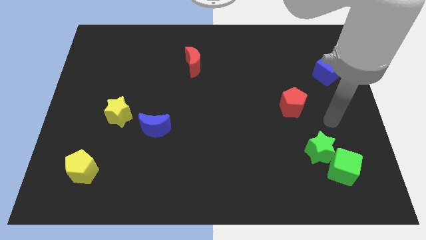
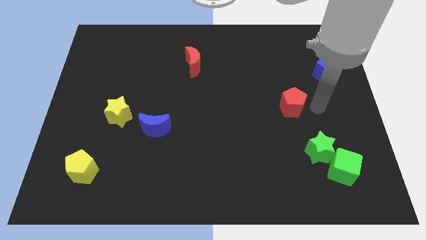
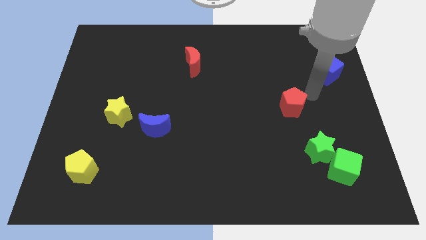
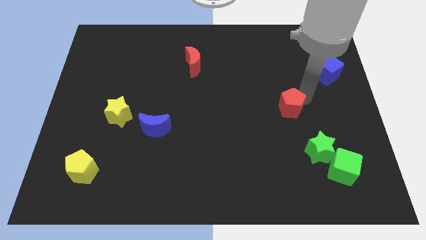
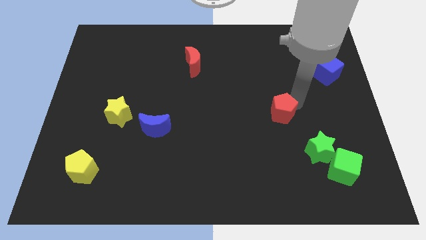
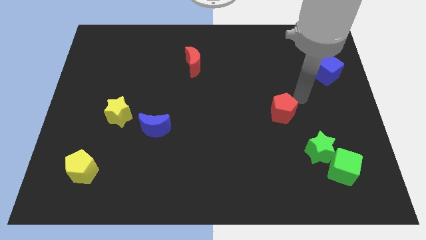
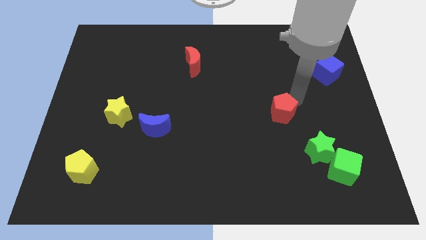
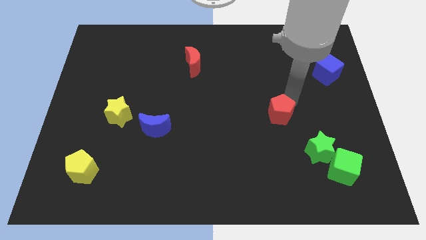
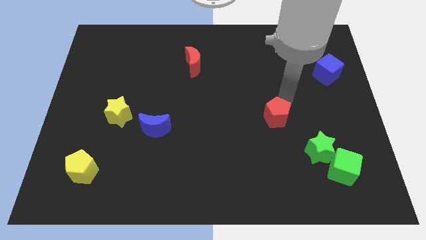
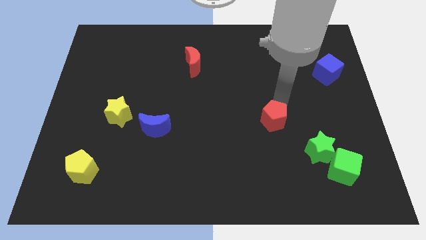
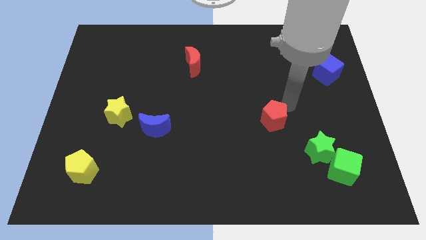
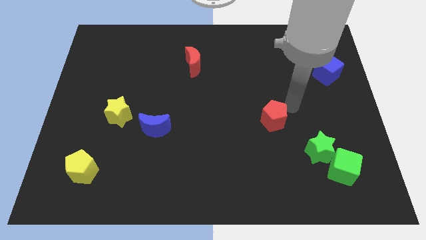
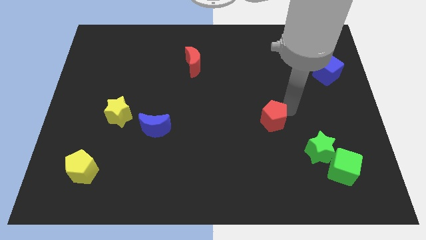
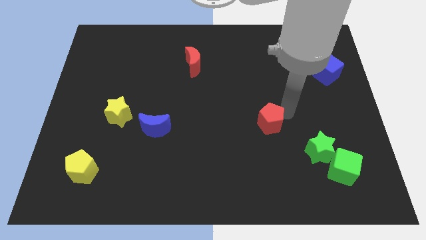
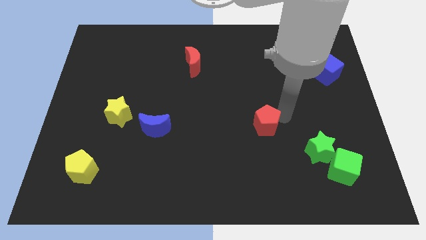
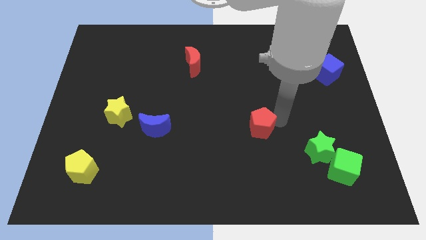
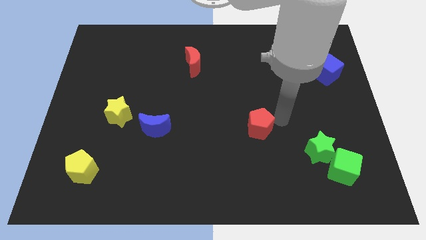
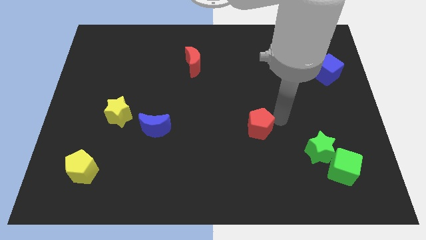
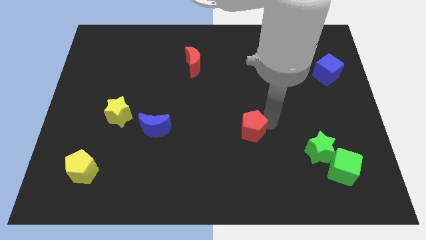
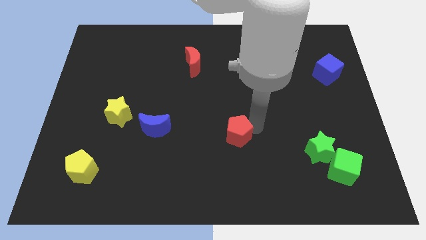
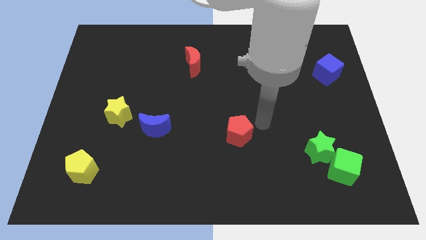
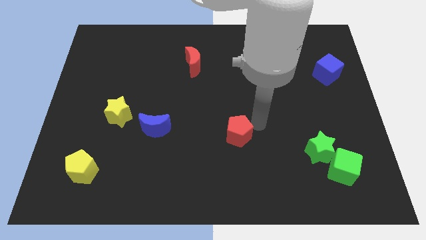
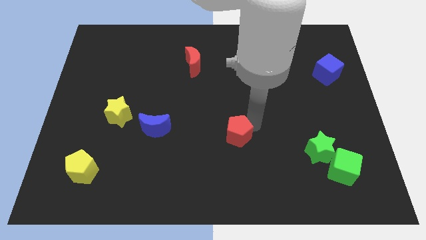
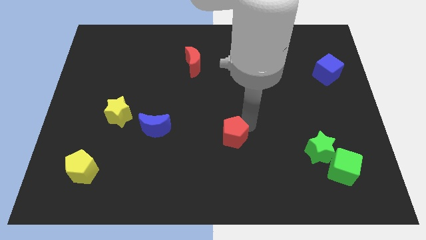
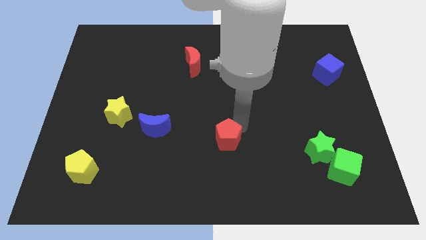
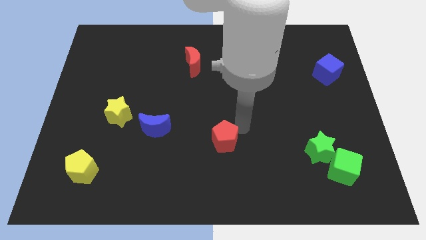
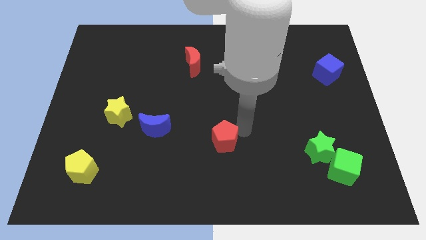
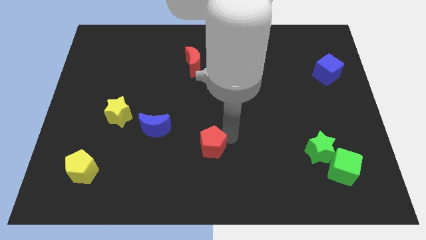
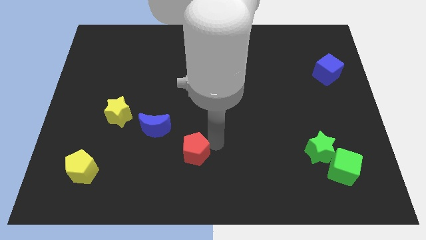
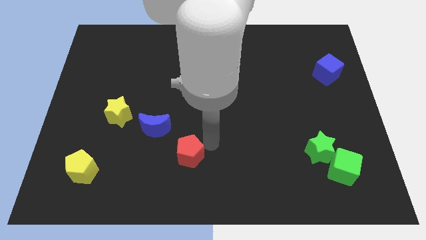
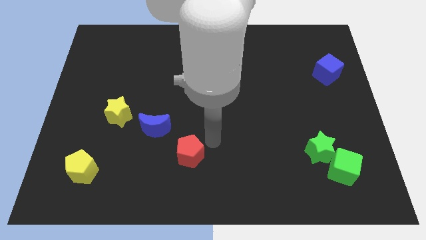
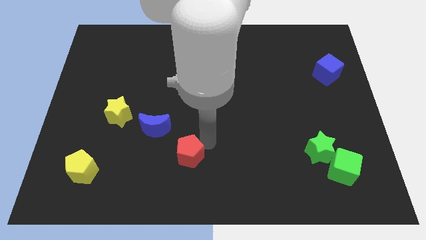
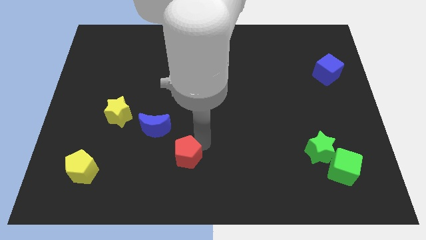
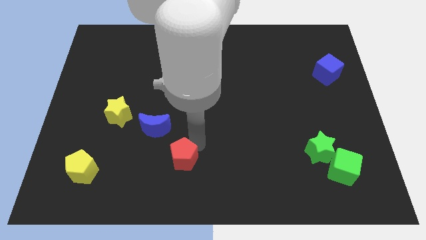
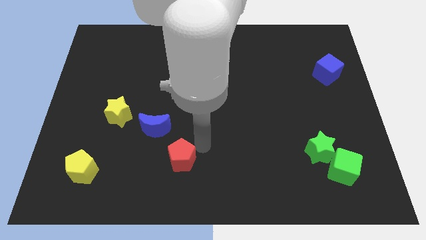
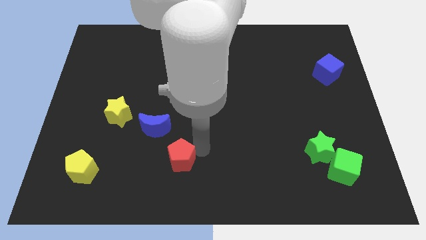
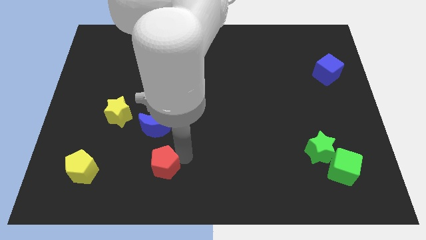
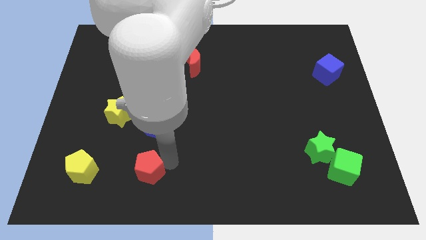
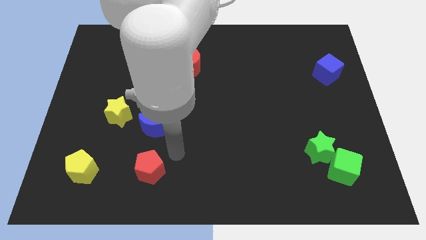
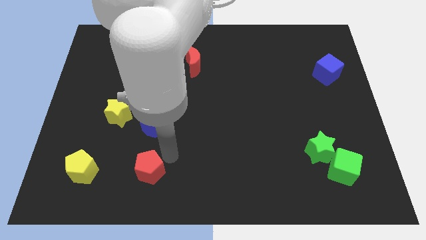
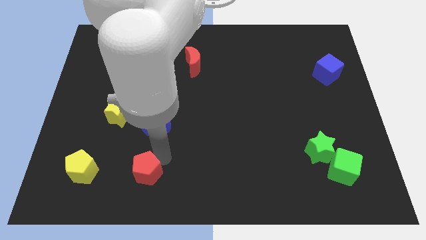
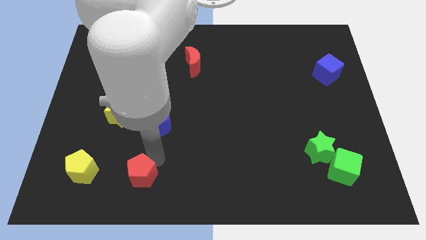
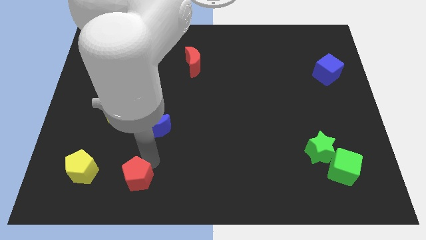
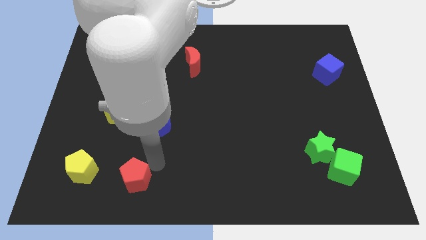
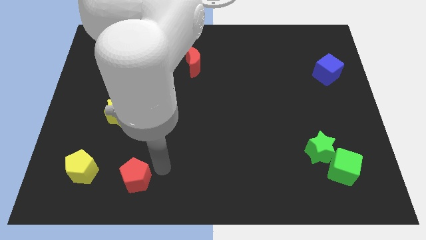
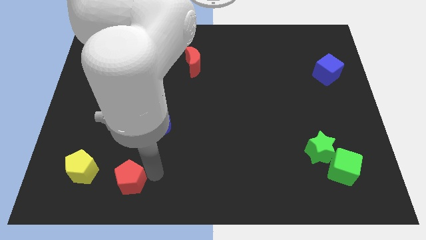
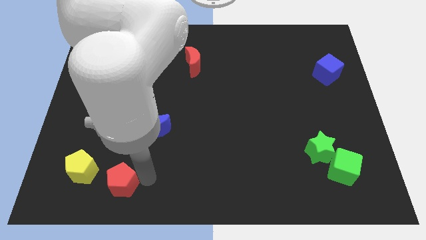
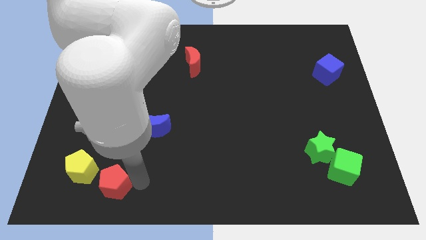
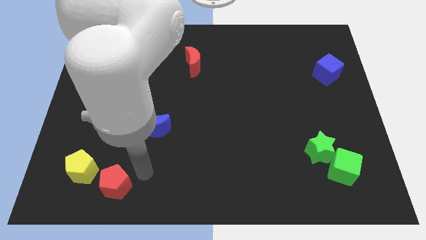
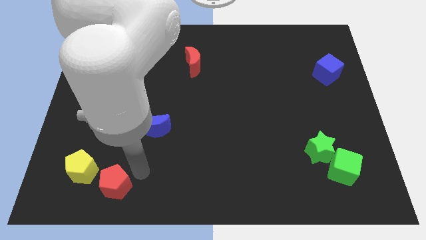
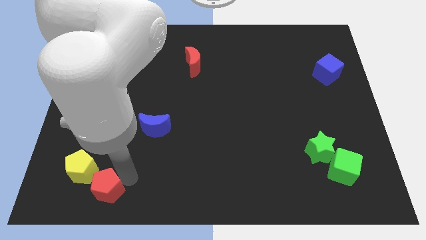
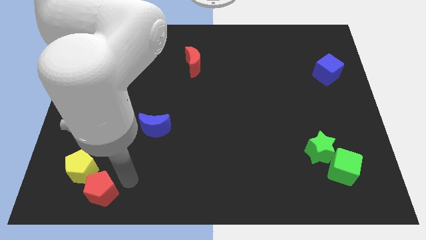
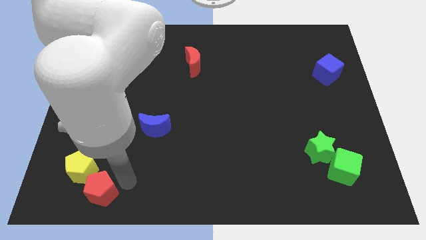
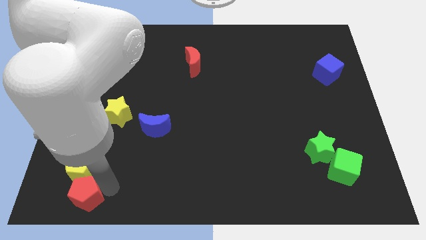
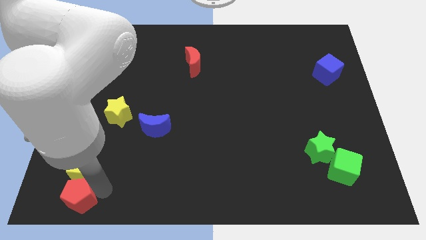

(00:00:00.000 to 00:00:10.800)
move the red pentagon to the bottom left of the board

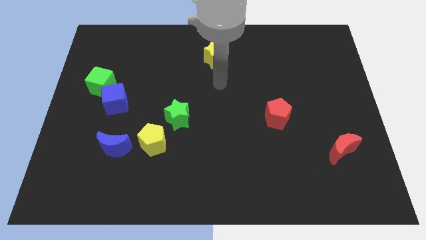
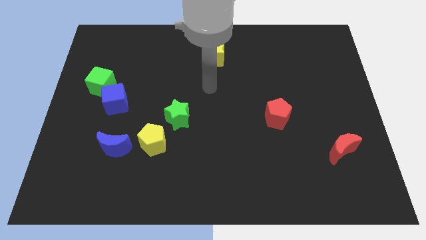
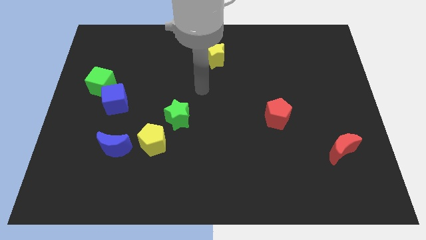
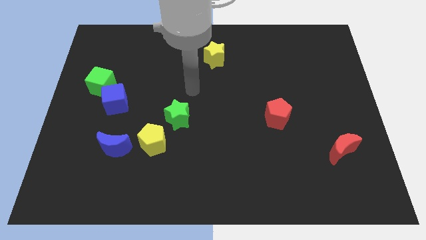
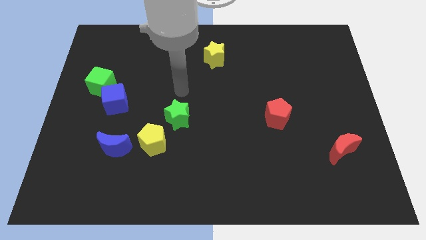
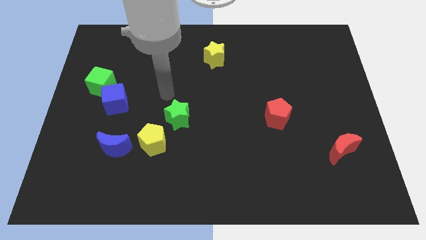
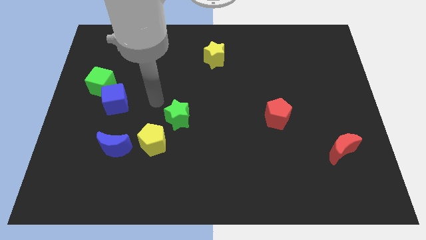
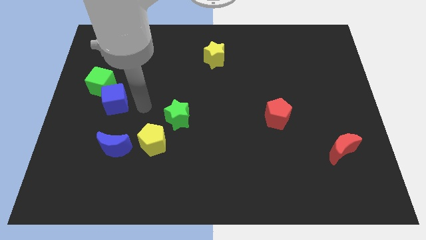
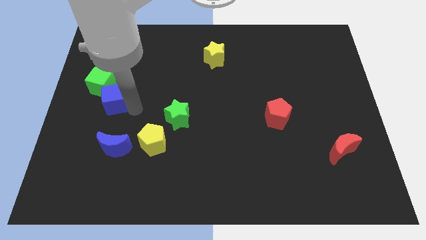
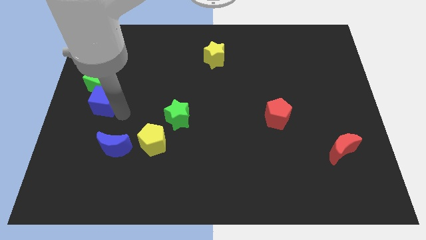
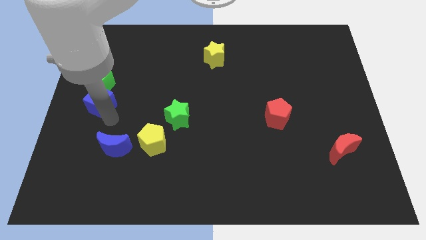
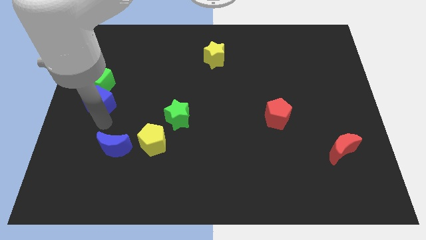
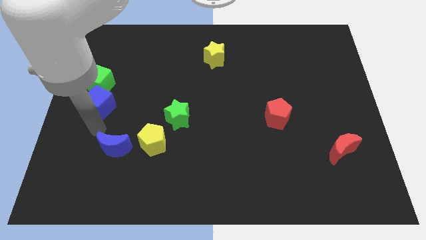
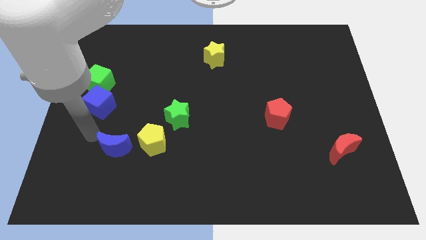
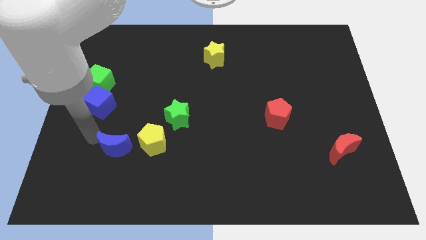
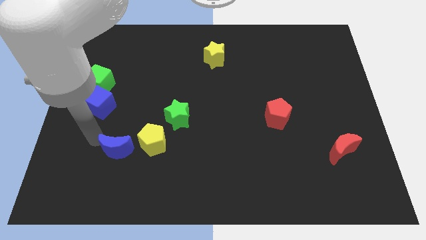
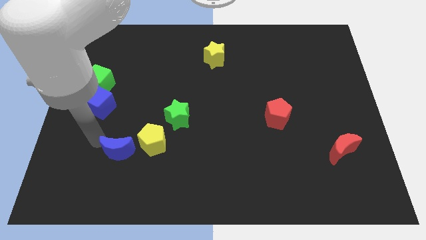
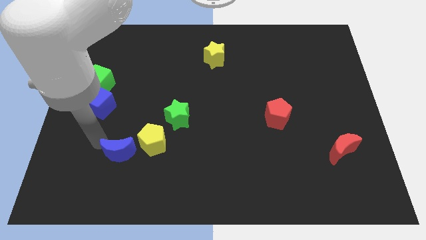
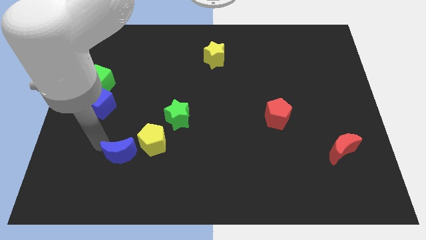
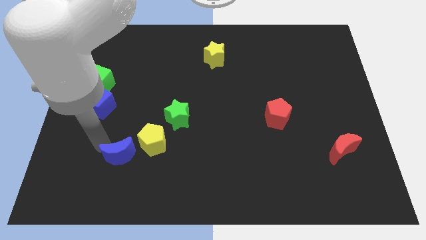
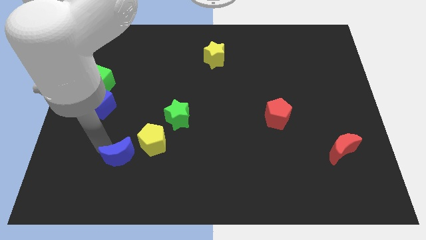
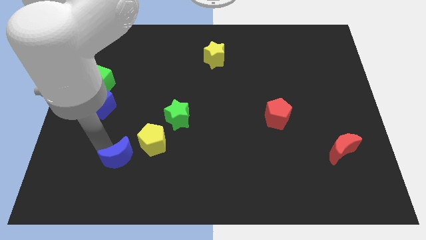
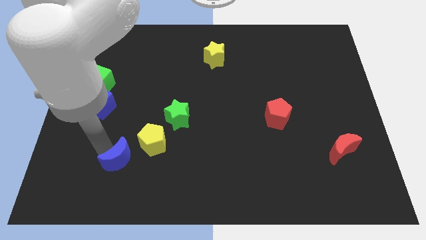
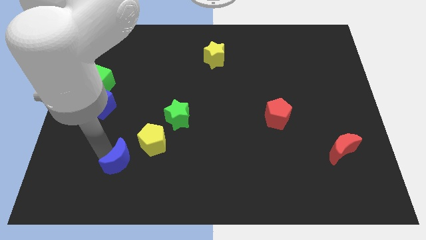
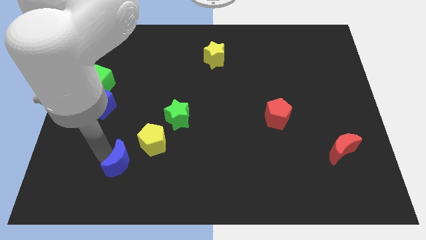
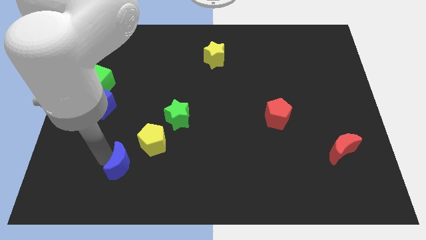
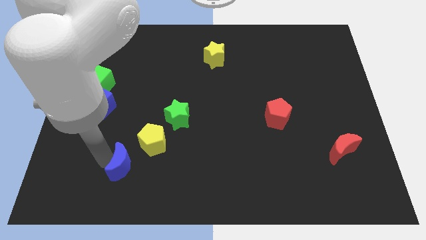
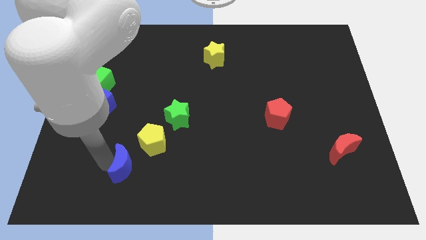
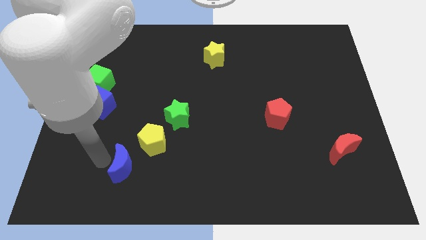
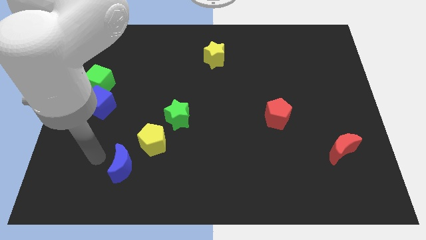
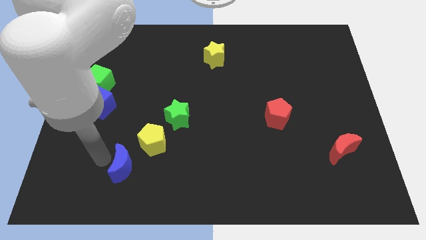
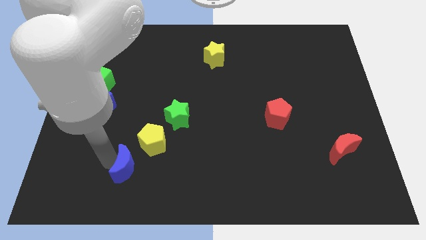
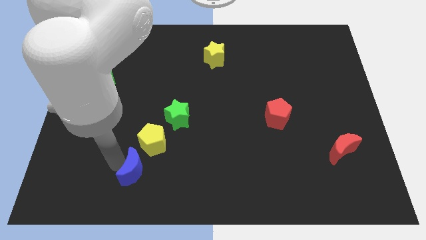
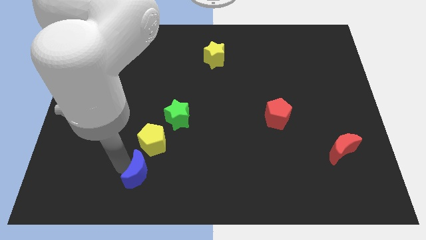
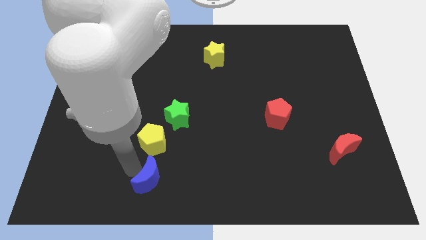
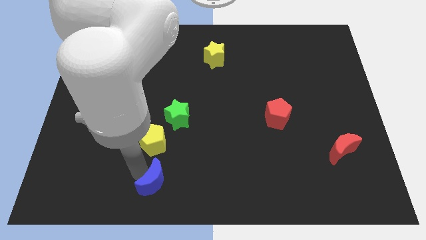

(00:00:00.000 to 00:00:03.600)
put the blue moon to the bottom side
